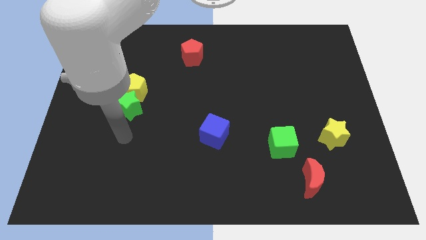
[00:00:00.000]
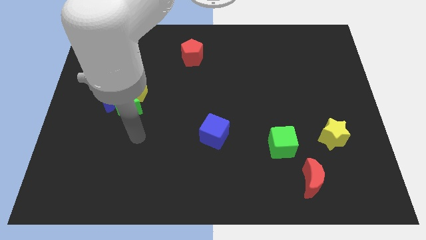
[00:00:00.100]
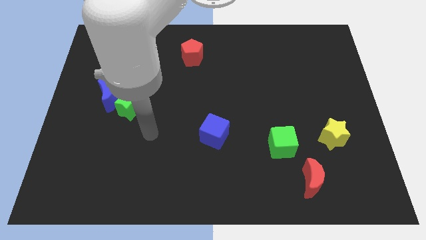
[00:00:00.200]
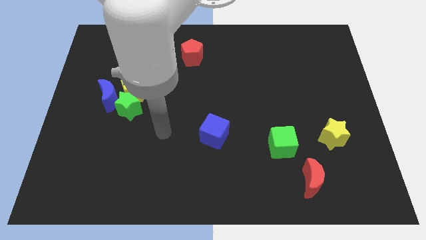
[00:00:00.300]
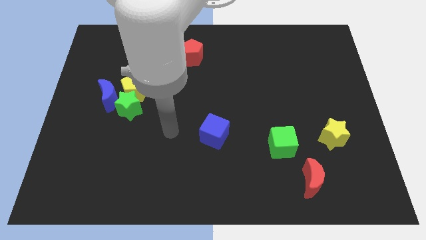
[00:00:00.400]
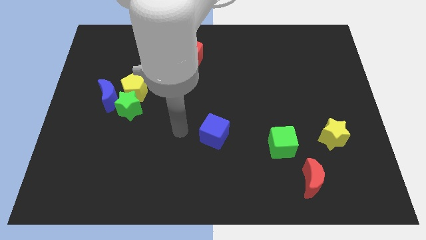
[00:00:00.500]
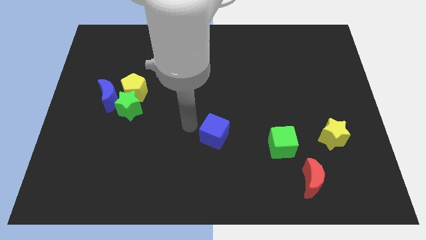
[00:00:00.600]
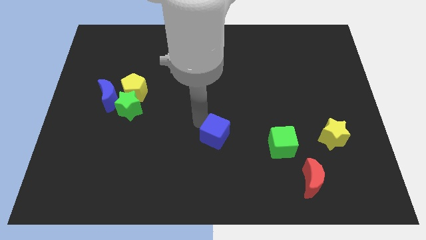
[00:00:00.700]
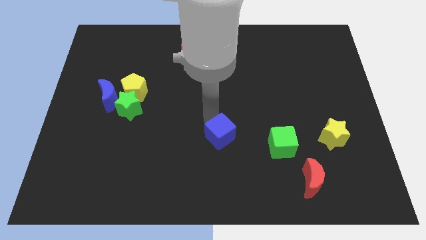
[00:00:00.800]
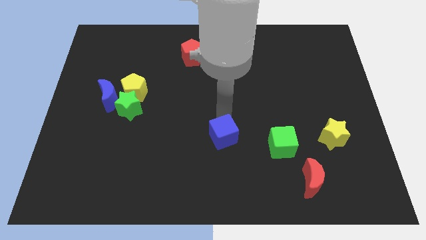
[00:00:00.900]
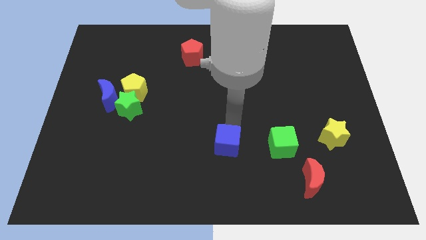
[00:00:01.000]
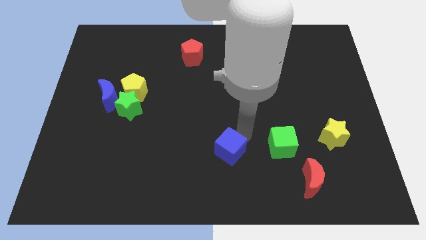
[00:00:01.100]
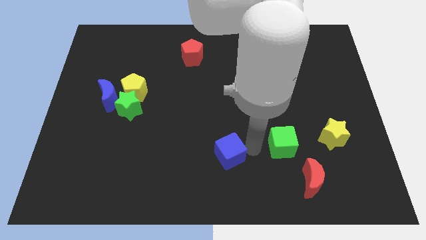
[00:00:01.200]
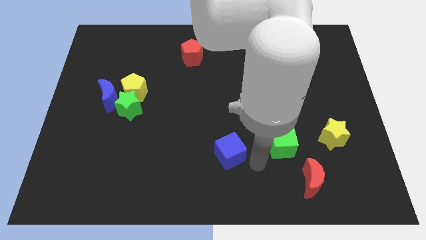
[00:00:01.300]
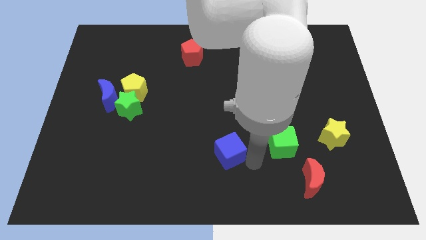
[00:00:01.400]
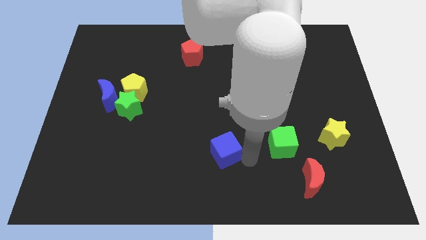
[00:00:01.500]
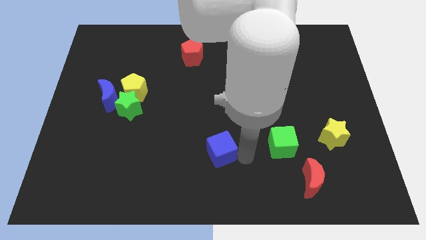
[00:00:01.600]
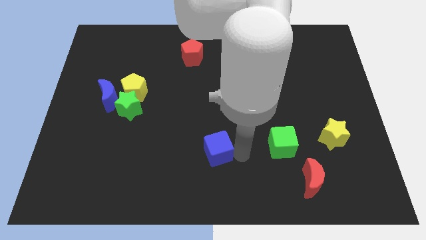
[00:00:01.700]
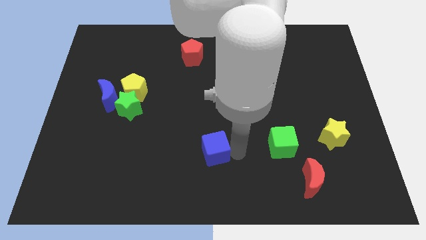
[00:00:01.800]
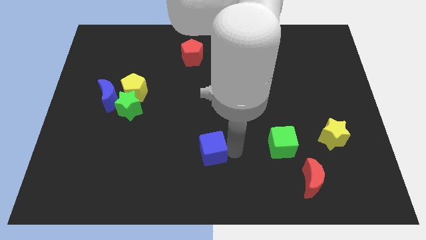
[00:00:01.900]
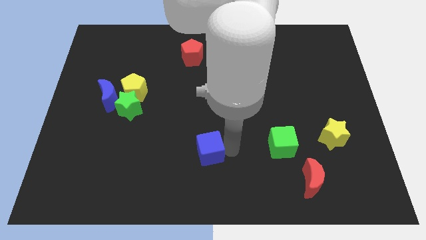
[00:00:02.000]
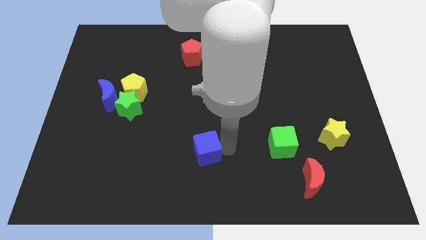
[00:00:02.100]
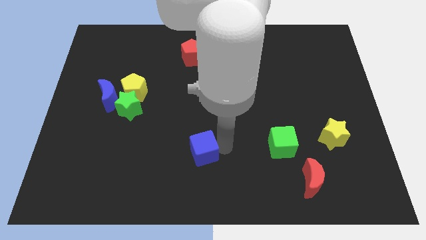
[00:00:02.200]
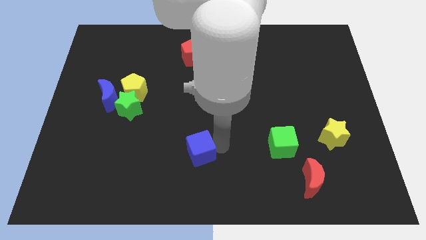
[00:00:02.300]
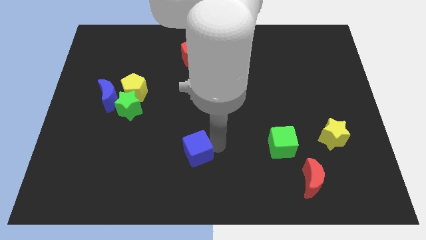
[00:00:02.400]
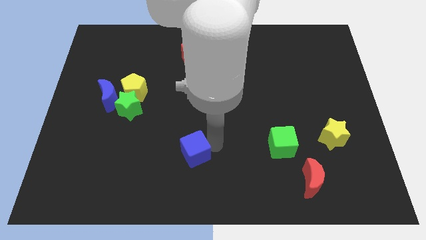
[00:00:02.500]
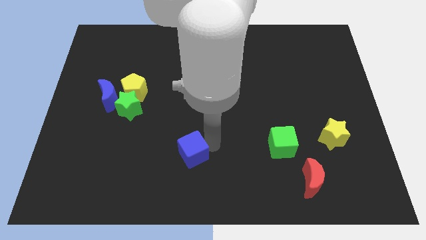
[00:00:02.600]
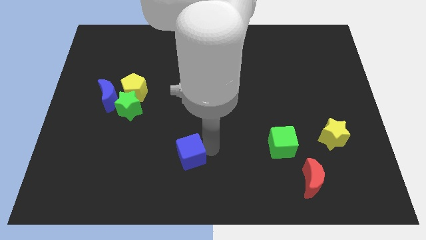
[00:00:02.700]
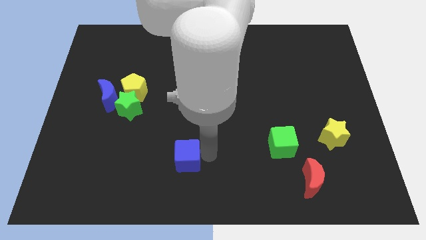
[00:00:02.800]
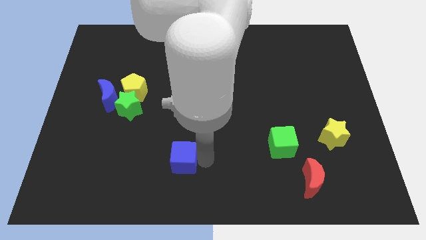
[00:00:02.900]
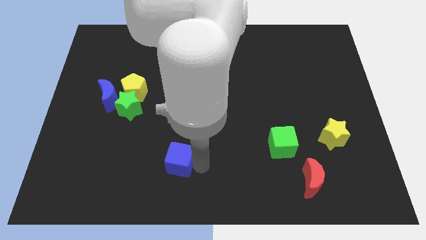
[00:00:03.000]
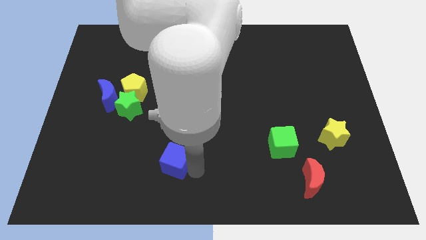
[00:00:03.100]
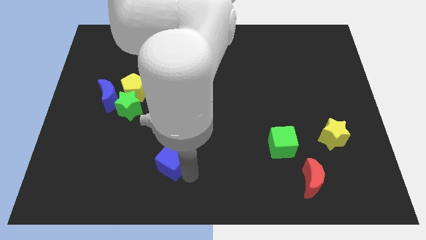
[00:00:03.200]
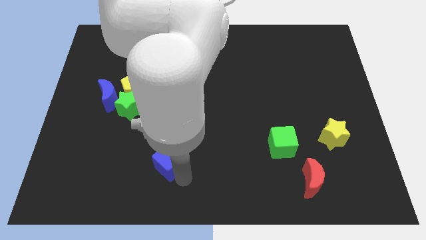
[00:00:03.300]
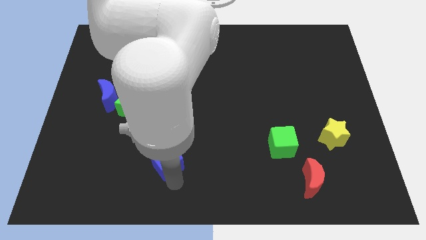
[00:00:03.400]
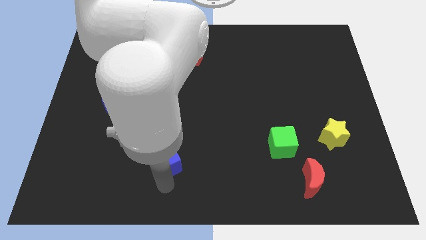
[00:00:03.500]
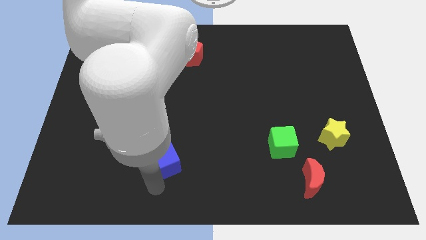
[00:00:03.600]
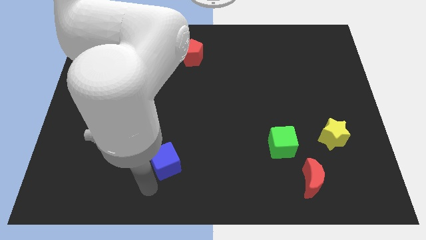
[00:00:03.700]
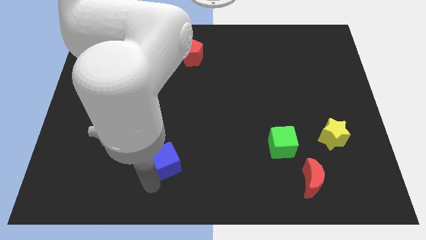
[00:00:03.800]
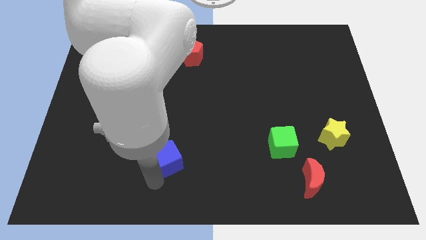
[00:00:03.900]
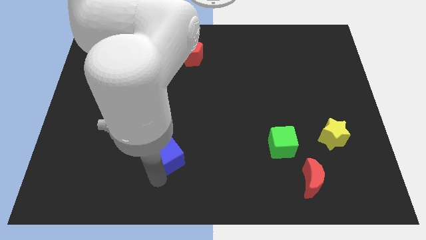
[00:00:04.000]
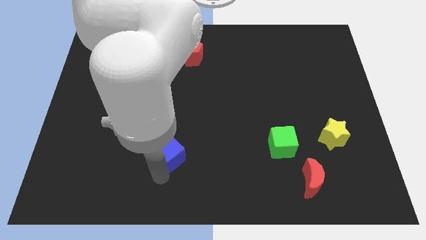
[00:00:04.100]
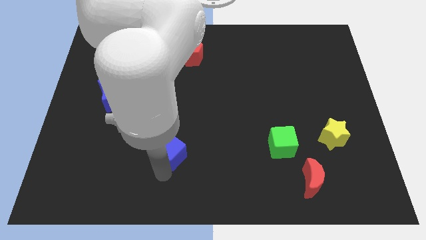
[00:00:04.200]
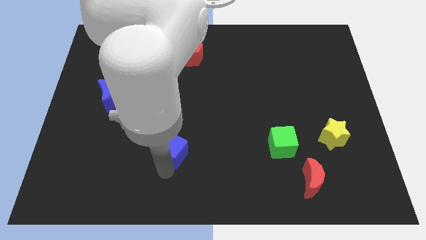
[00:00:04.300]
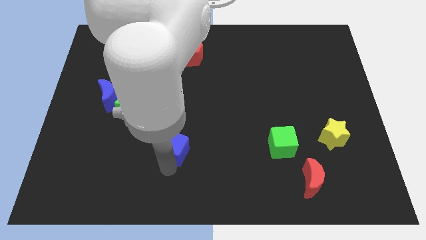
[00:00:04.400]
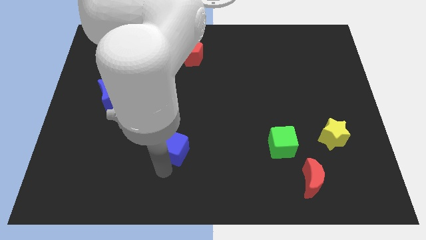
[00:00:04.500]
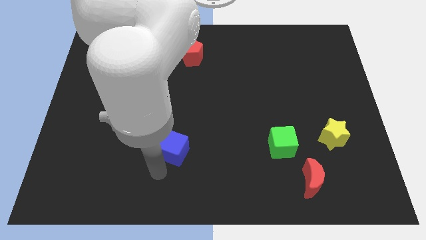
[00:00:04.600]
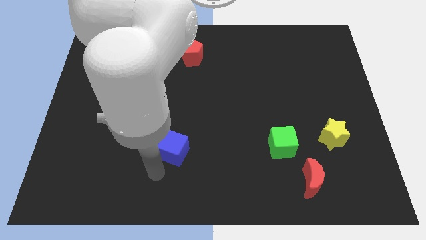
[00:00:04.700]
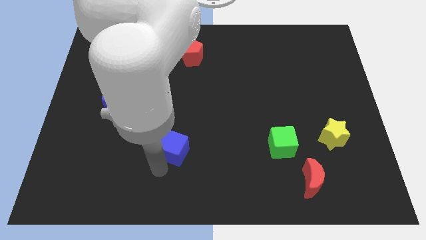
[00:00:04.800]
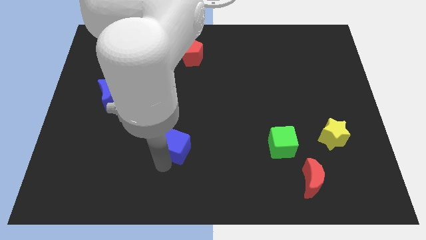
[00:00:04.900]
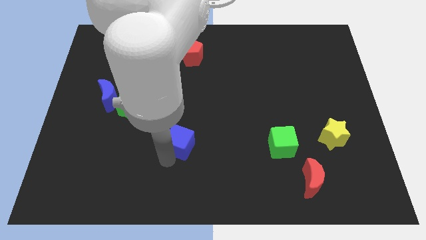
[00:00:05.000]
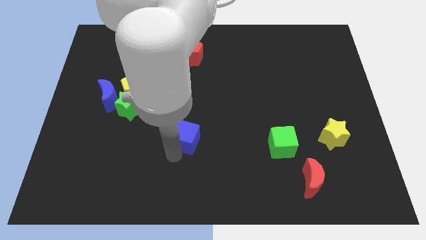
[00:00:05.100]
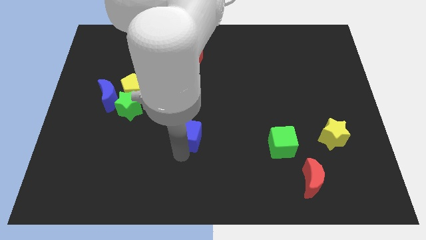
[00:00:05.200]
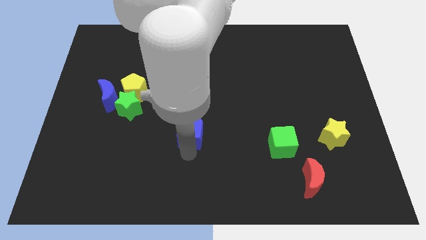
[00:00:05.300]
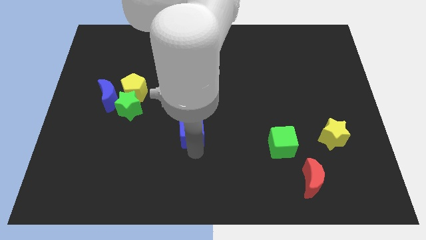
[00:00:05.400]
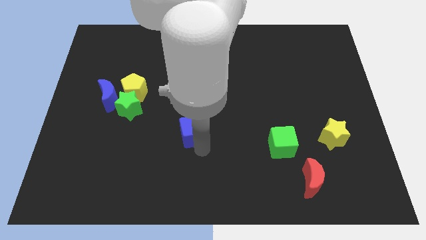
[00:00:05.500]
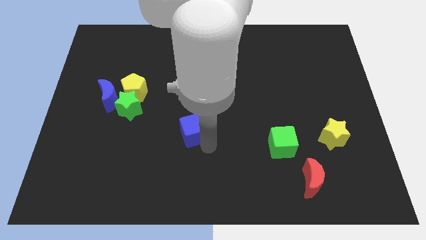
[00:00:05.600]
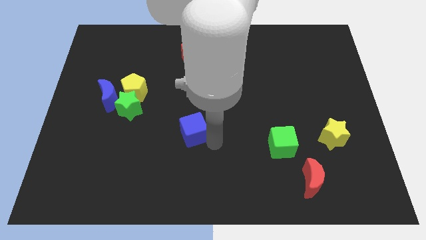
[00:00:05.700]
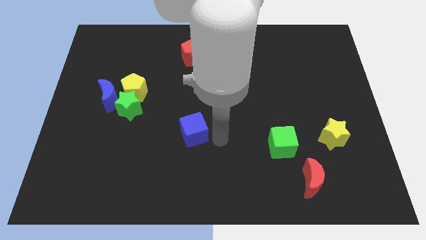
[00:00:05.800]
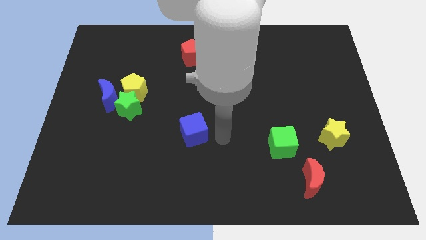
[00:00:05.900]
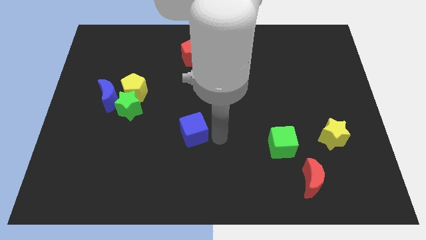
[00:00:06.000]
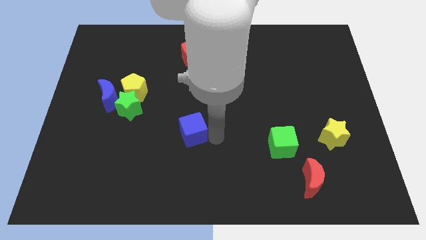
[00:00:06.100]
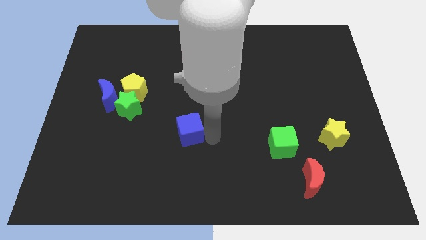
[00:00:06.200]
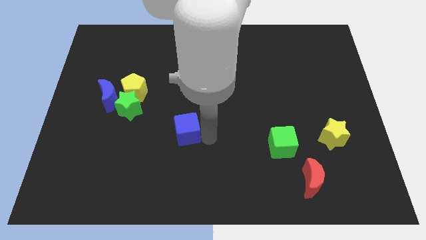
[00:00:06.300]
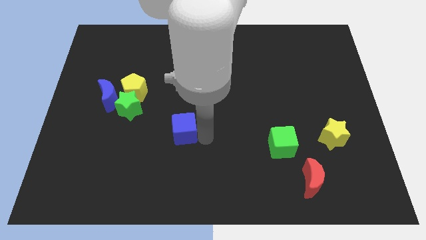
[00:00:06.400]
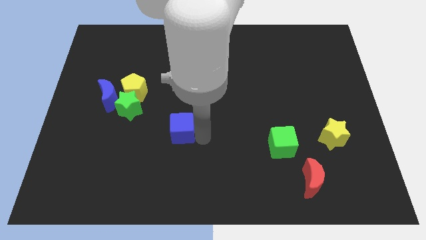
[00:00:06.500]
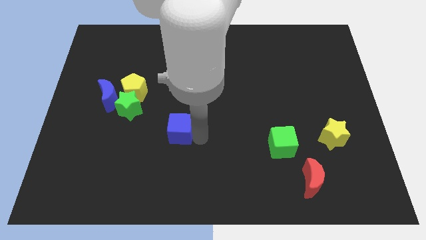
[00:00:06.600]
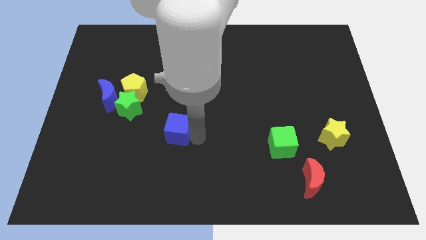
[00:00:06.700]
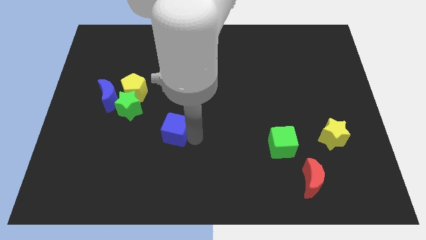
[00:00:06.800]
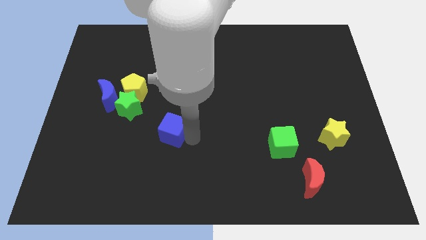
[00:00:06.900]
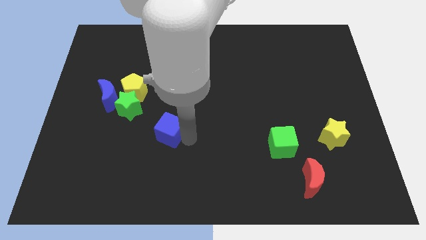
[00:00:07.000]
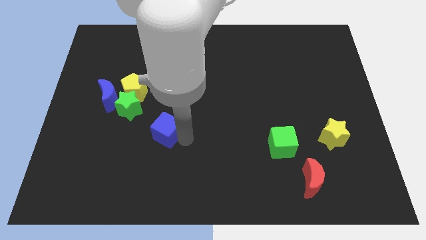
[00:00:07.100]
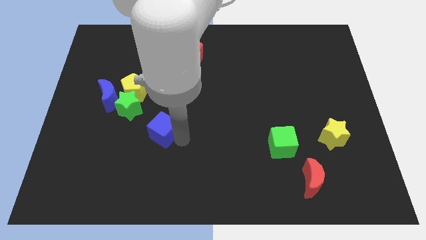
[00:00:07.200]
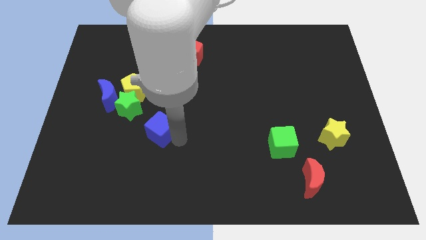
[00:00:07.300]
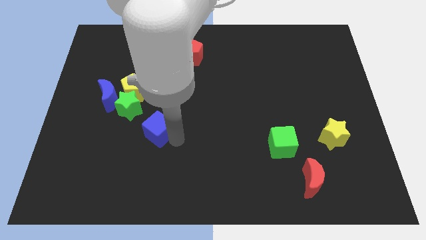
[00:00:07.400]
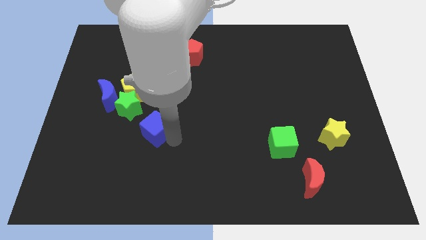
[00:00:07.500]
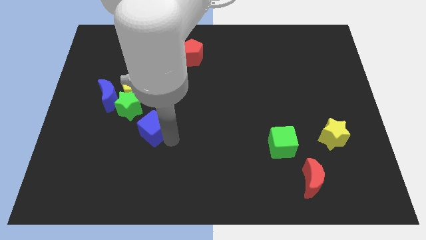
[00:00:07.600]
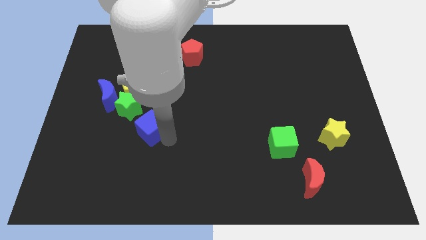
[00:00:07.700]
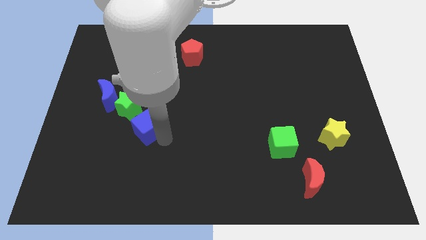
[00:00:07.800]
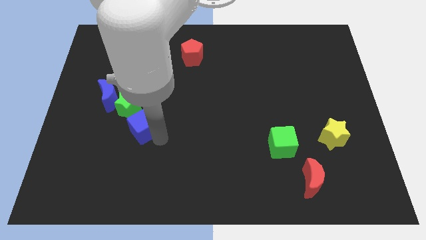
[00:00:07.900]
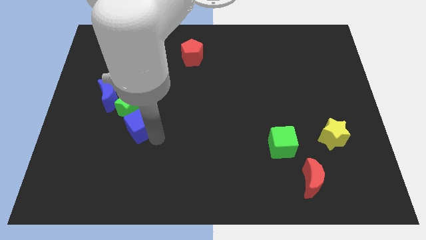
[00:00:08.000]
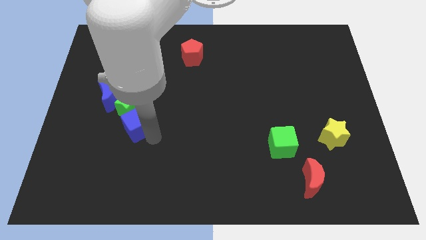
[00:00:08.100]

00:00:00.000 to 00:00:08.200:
push the blue cube next to the green star
